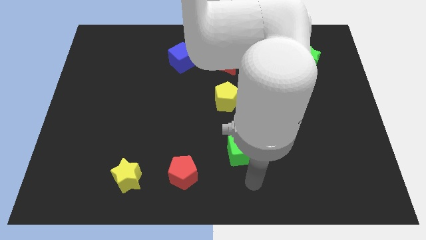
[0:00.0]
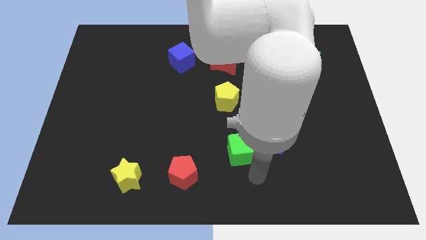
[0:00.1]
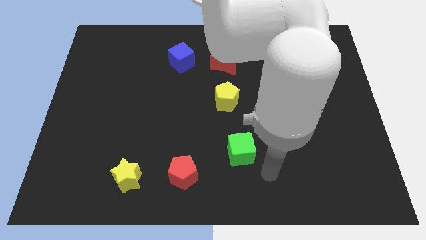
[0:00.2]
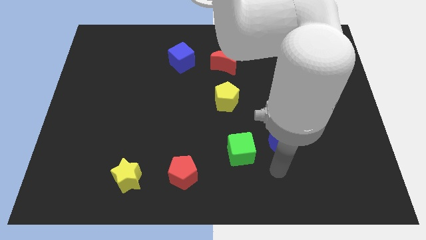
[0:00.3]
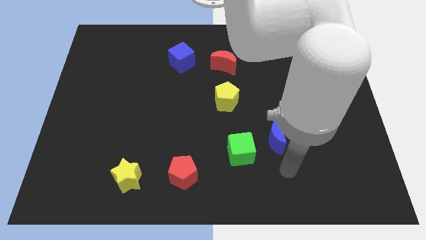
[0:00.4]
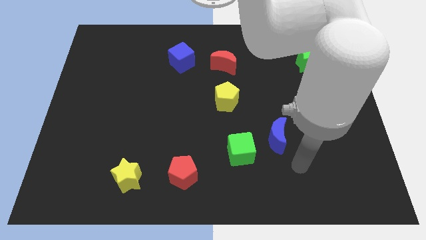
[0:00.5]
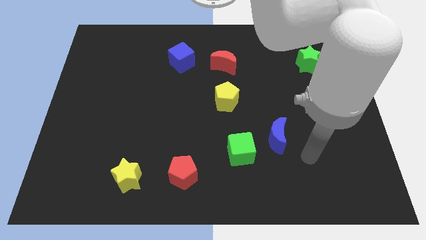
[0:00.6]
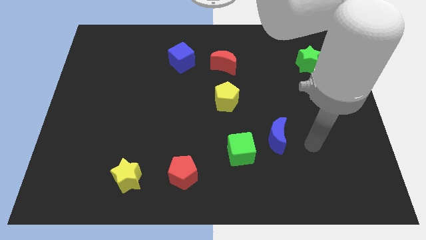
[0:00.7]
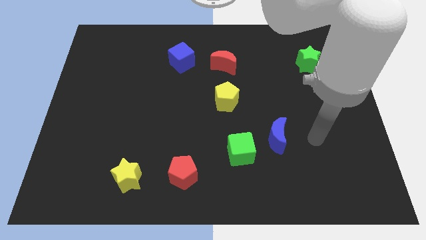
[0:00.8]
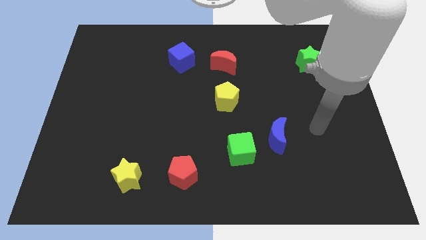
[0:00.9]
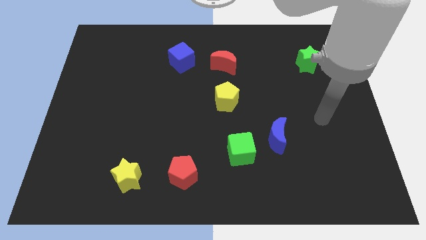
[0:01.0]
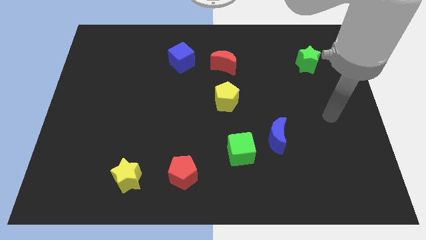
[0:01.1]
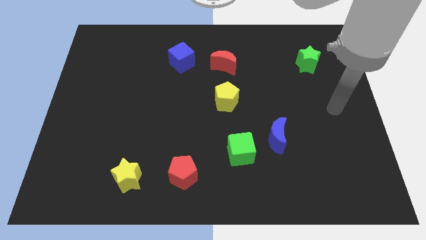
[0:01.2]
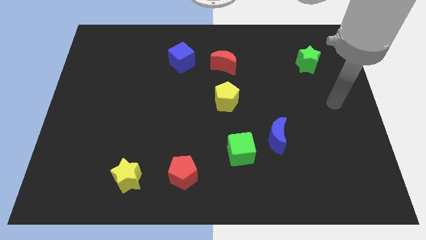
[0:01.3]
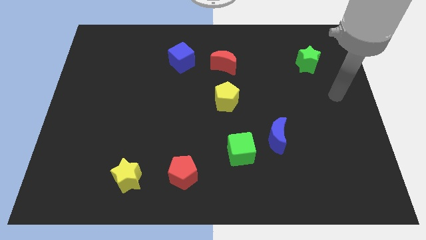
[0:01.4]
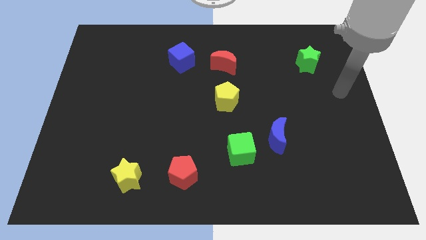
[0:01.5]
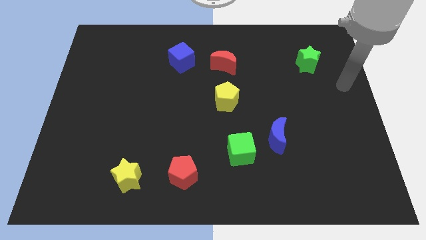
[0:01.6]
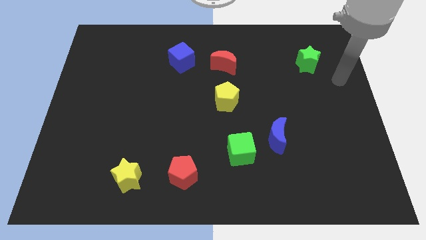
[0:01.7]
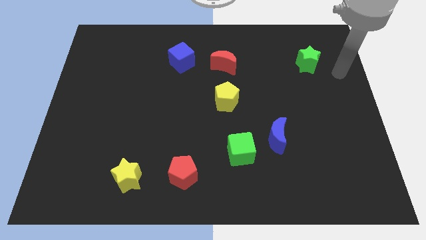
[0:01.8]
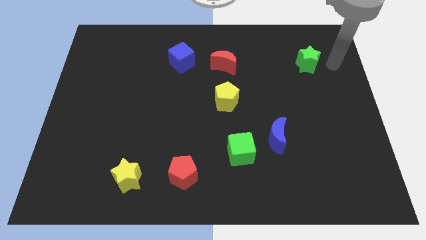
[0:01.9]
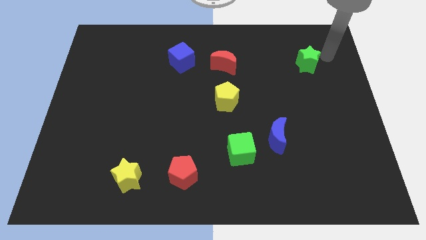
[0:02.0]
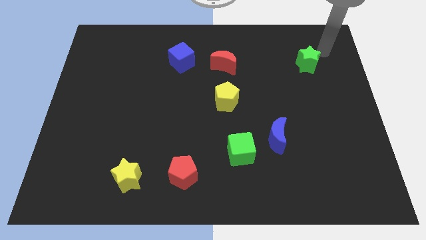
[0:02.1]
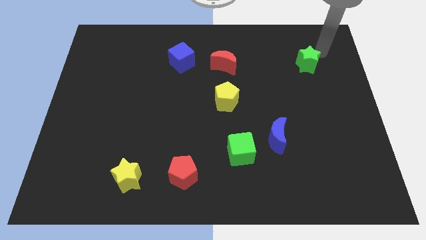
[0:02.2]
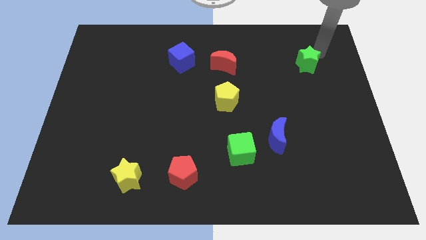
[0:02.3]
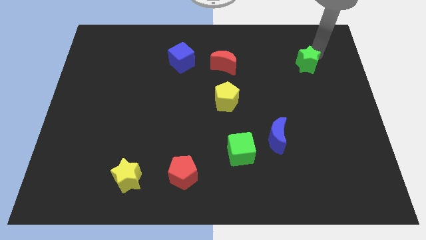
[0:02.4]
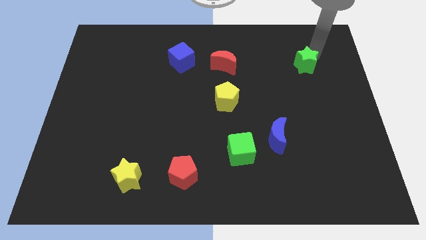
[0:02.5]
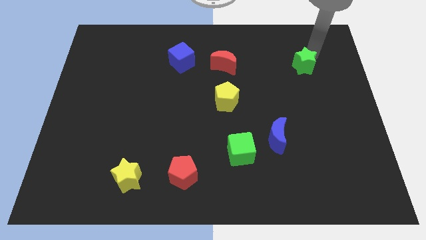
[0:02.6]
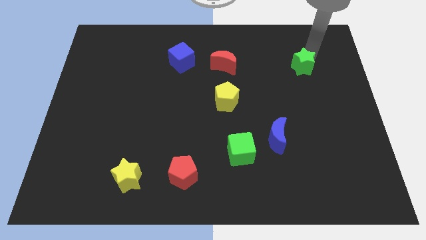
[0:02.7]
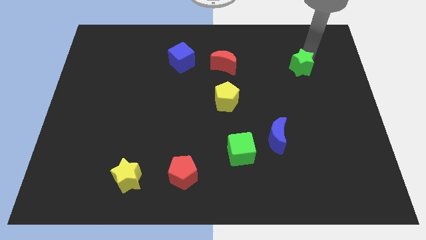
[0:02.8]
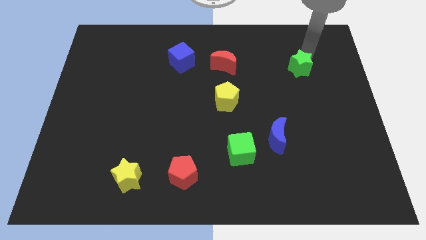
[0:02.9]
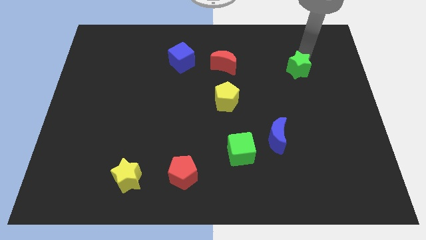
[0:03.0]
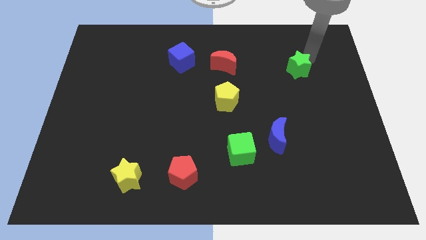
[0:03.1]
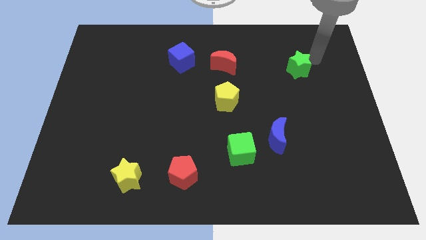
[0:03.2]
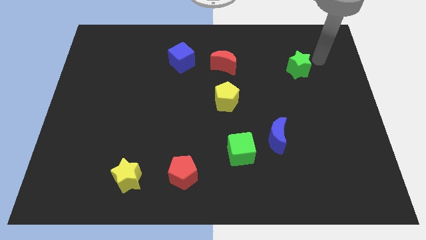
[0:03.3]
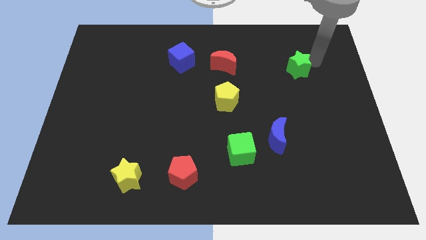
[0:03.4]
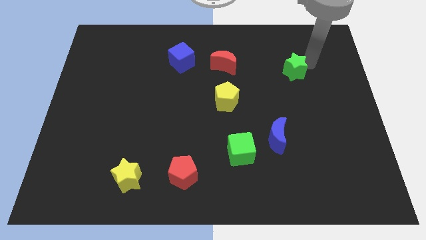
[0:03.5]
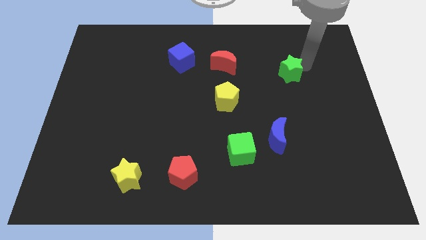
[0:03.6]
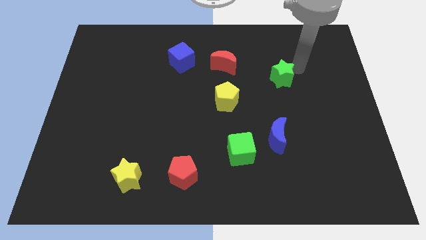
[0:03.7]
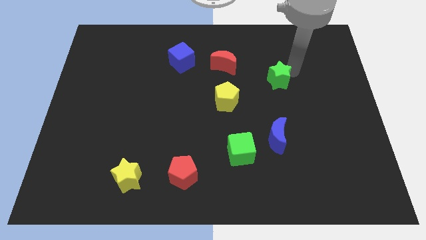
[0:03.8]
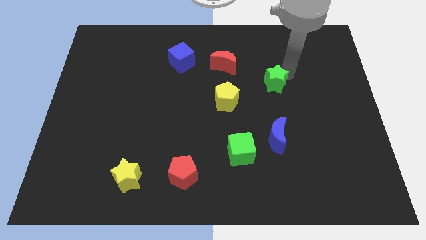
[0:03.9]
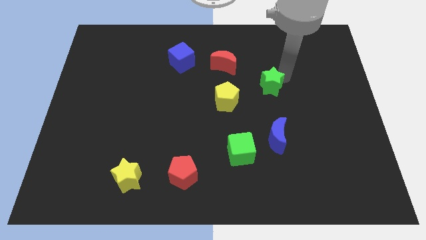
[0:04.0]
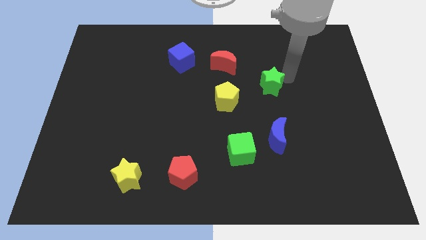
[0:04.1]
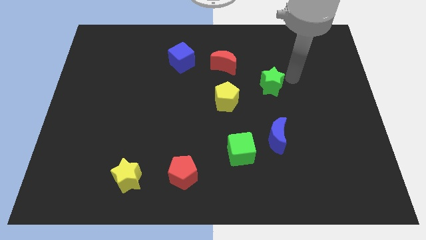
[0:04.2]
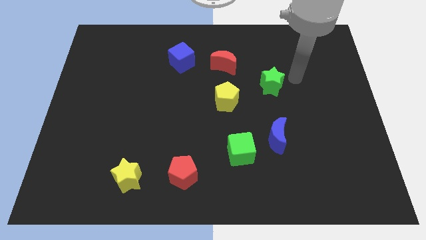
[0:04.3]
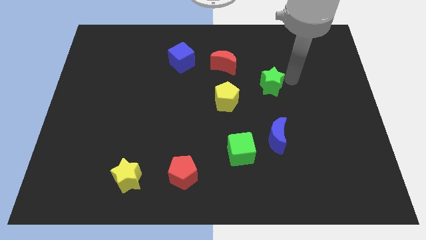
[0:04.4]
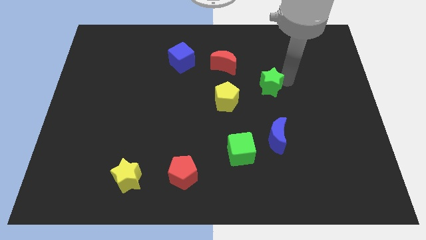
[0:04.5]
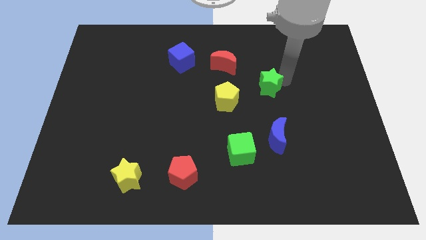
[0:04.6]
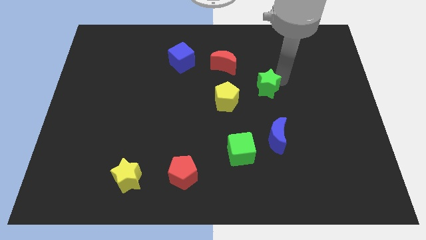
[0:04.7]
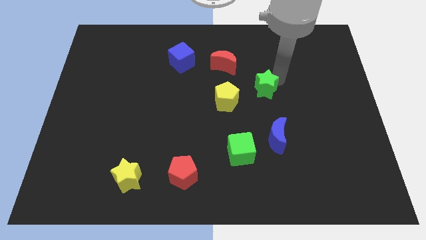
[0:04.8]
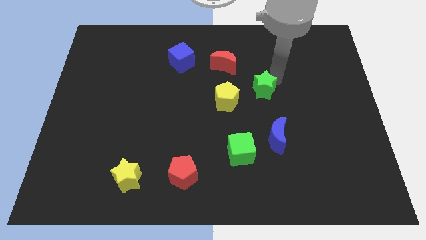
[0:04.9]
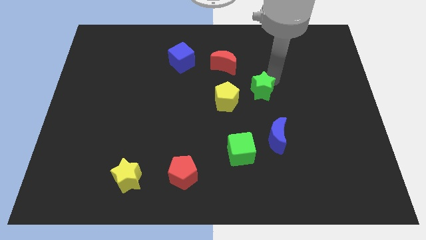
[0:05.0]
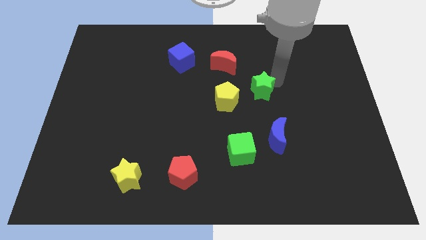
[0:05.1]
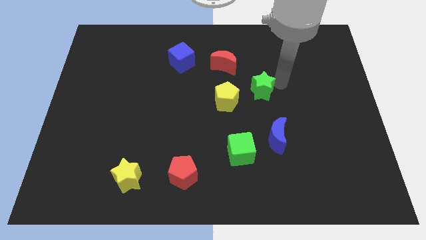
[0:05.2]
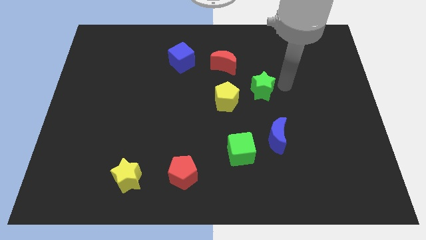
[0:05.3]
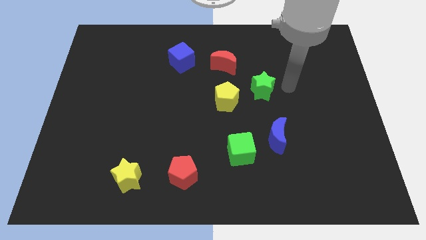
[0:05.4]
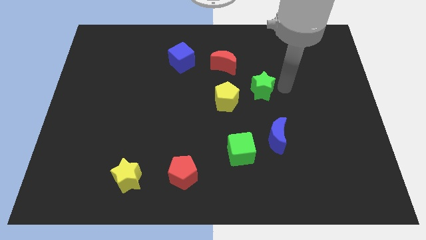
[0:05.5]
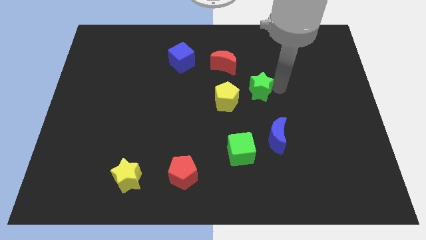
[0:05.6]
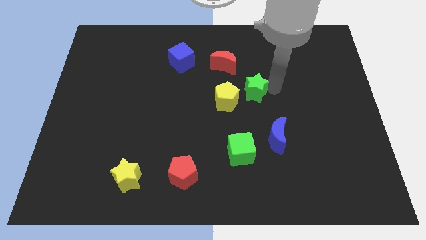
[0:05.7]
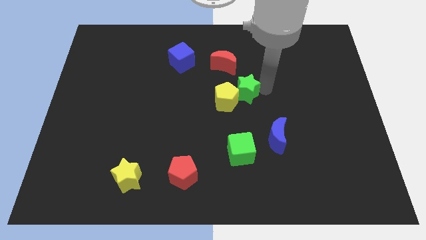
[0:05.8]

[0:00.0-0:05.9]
slide the green star close to the yellow pentagon

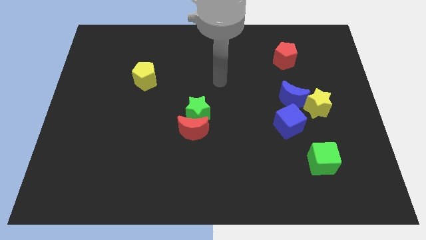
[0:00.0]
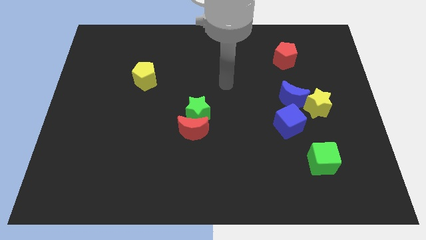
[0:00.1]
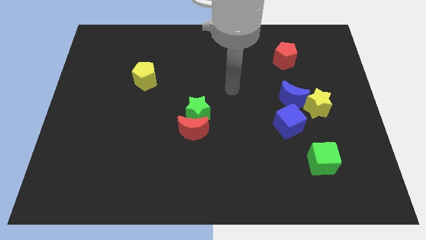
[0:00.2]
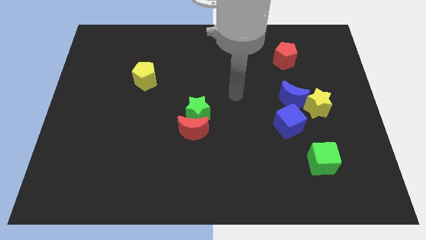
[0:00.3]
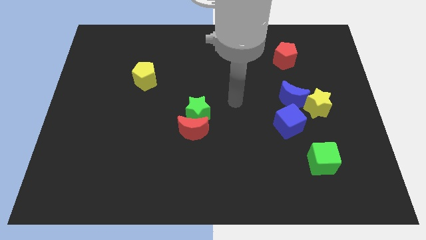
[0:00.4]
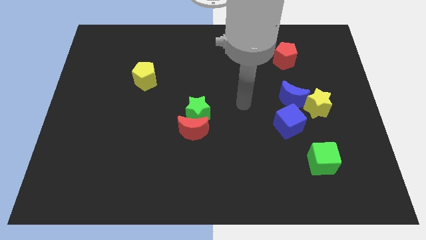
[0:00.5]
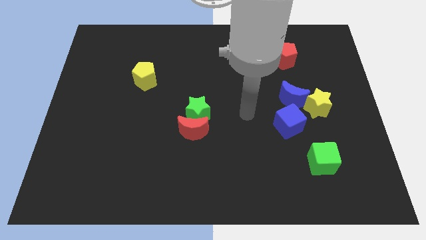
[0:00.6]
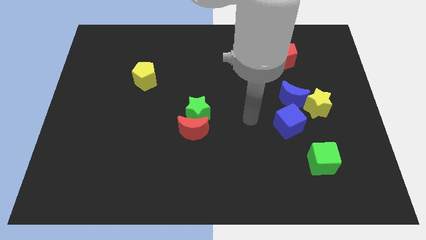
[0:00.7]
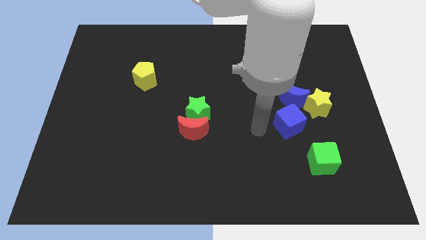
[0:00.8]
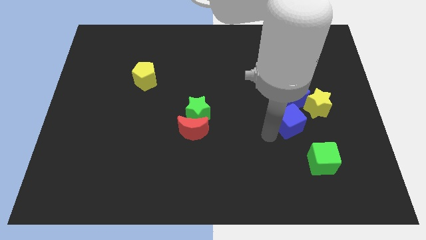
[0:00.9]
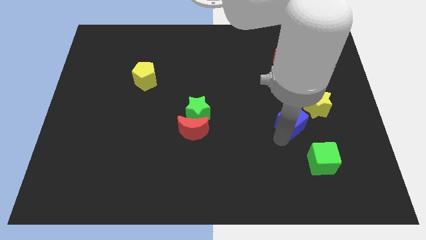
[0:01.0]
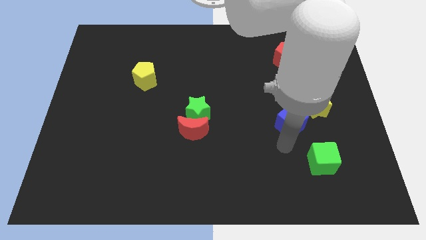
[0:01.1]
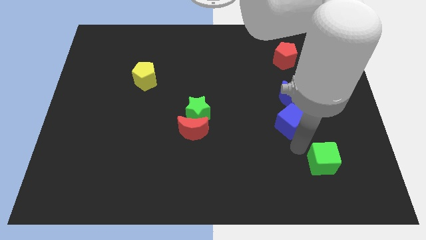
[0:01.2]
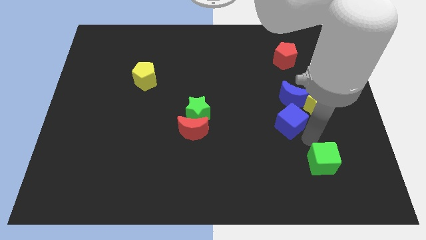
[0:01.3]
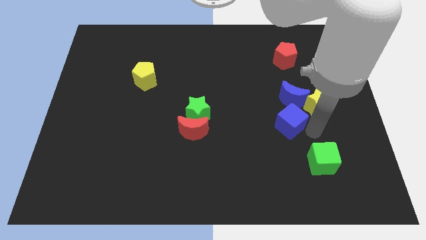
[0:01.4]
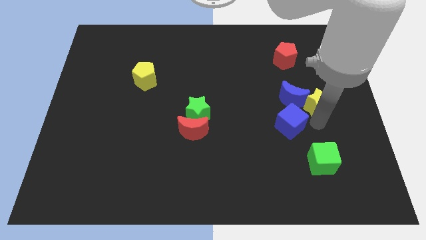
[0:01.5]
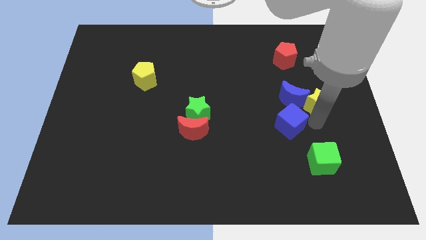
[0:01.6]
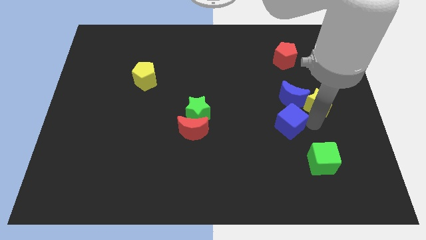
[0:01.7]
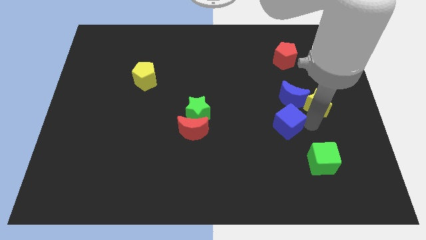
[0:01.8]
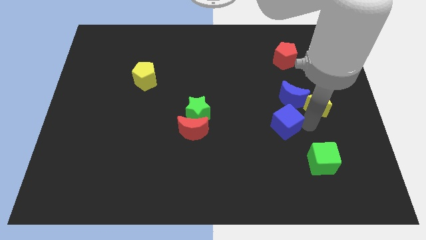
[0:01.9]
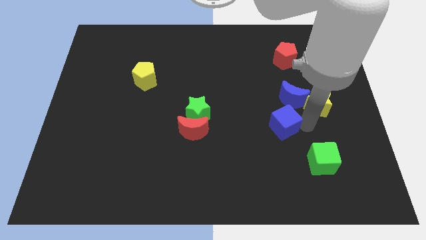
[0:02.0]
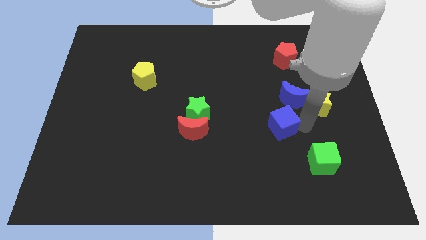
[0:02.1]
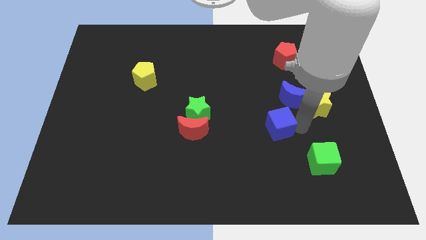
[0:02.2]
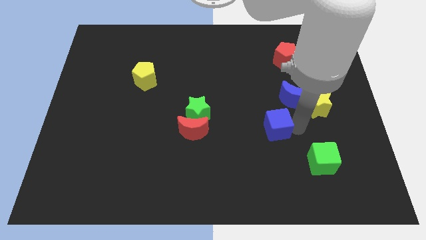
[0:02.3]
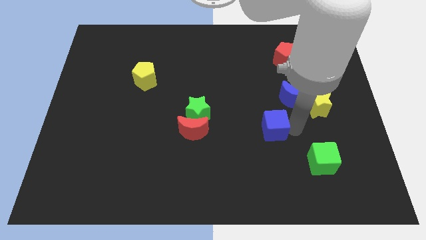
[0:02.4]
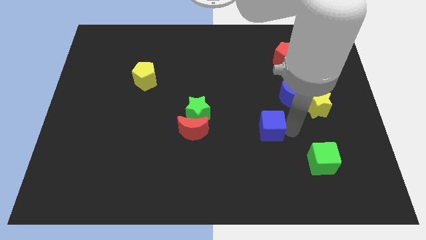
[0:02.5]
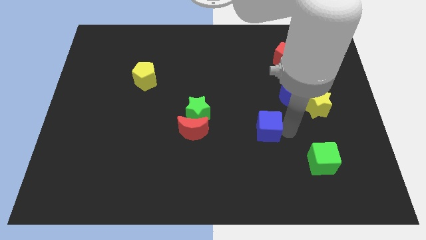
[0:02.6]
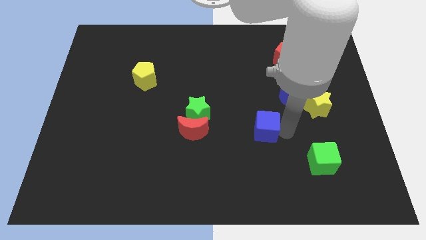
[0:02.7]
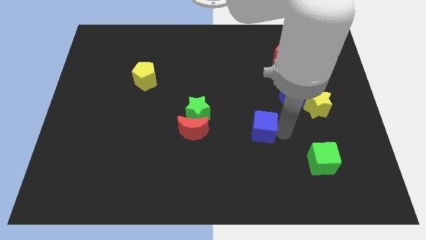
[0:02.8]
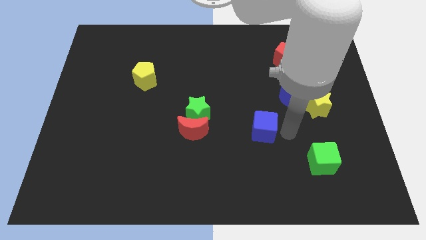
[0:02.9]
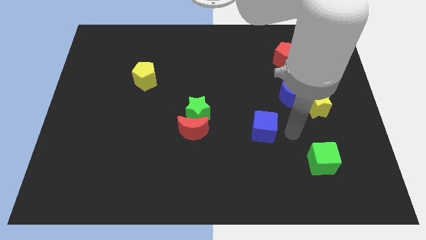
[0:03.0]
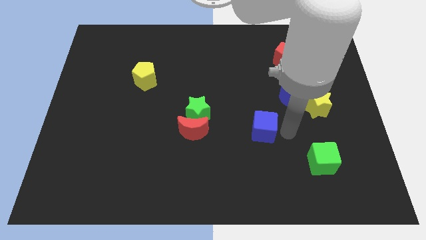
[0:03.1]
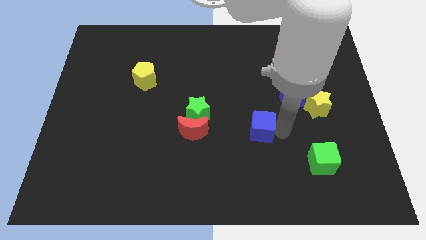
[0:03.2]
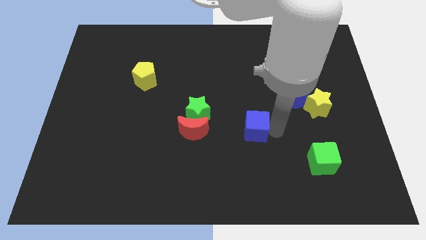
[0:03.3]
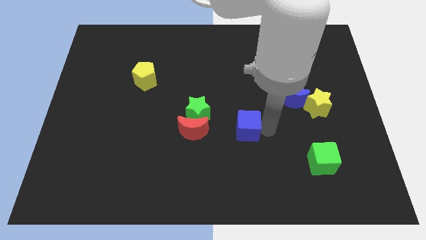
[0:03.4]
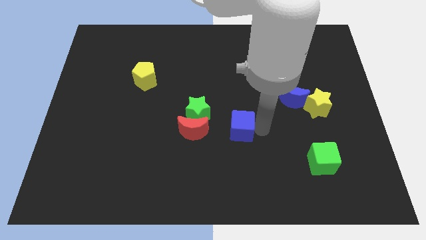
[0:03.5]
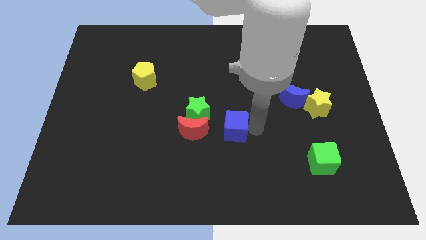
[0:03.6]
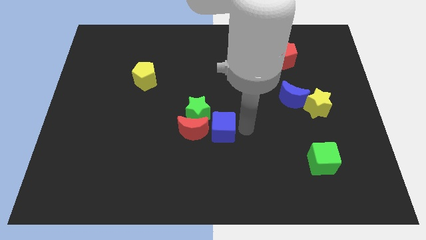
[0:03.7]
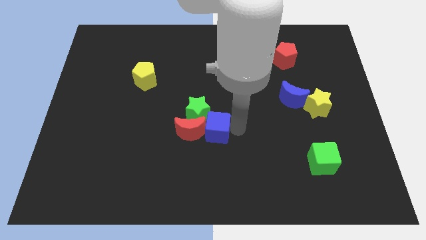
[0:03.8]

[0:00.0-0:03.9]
push the blue cube to the red moon
